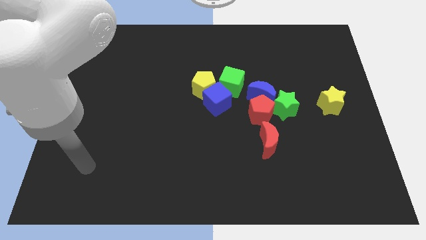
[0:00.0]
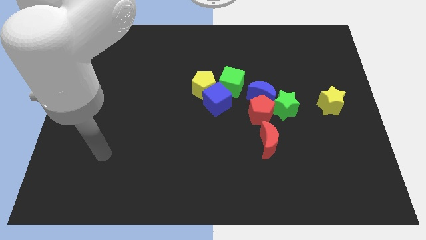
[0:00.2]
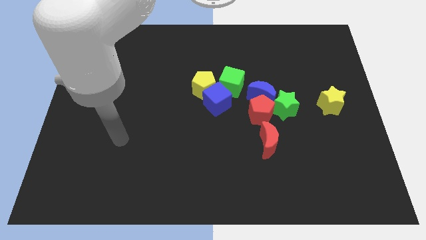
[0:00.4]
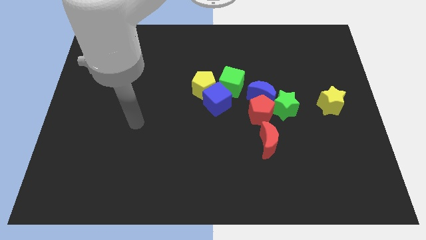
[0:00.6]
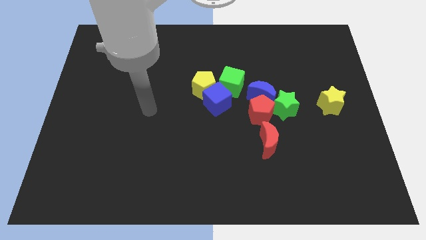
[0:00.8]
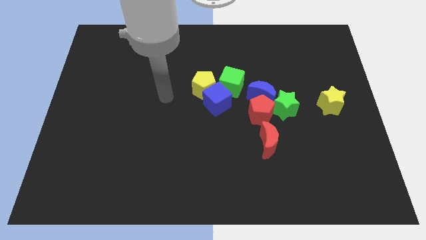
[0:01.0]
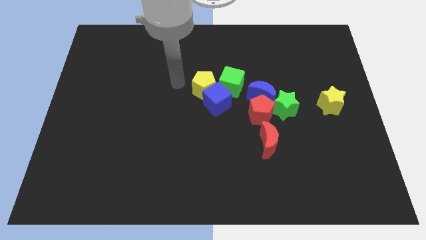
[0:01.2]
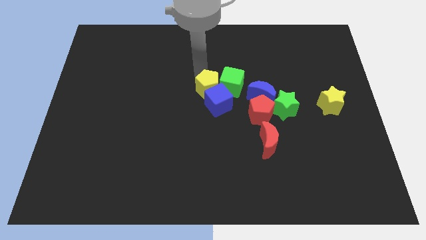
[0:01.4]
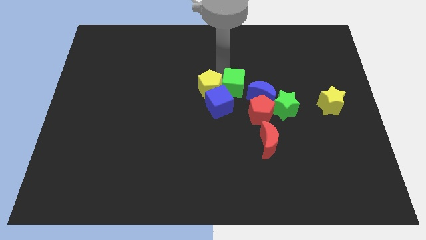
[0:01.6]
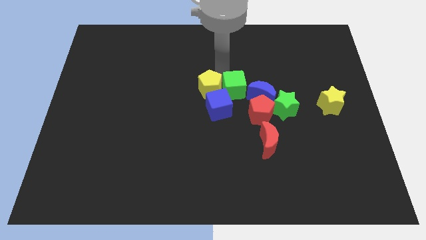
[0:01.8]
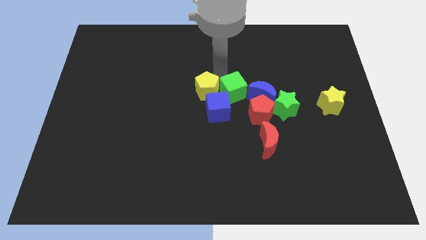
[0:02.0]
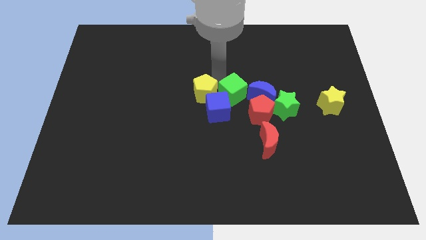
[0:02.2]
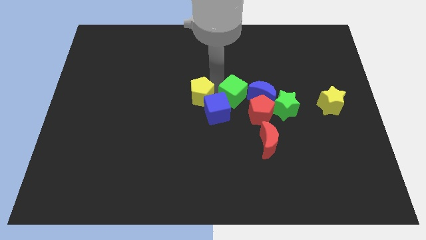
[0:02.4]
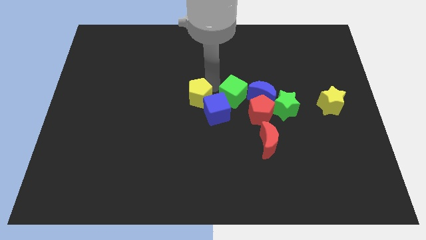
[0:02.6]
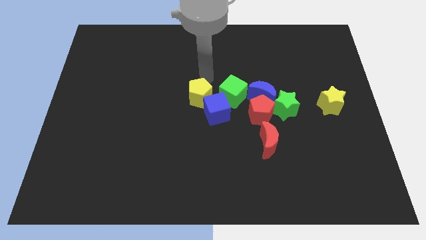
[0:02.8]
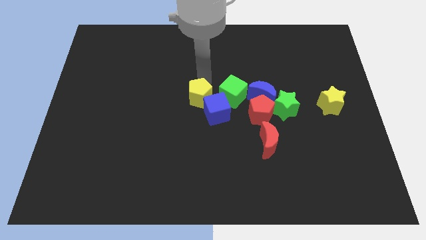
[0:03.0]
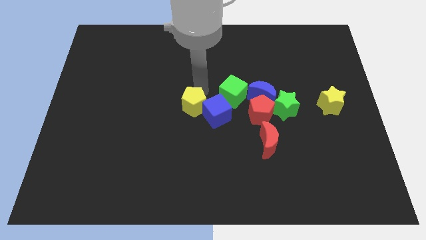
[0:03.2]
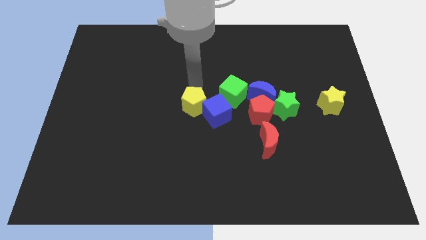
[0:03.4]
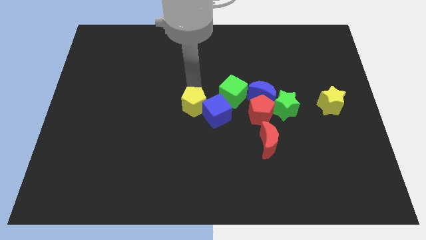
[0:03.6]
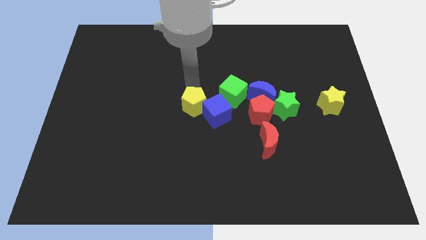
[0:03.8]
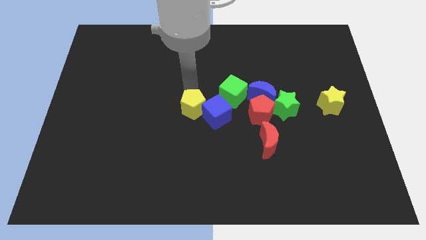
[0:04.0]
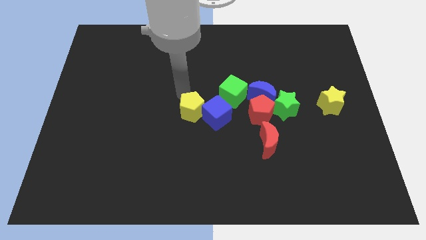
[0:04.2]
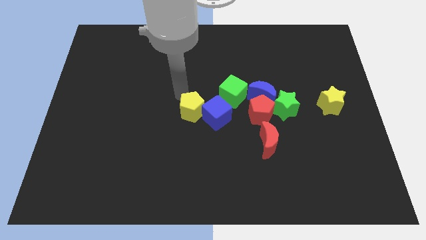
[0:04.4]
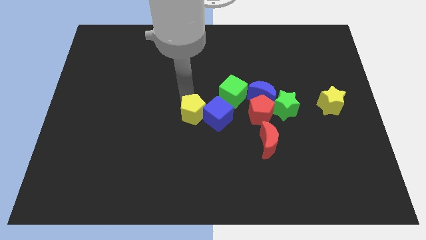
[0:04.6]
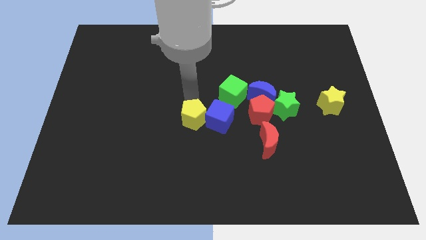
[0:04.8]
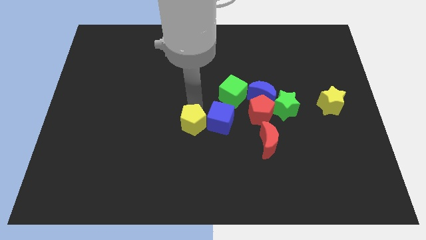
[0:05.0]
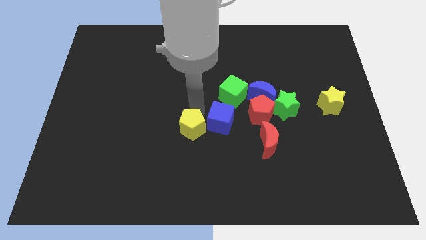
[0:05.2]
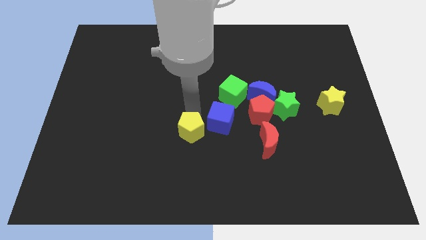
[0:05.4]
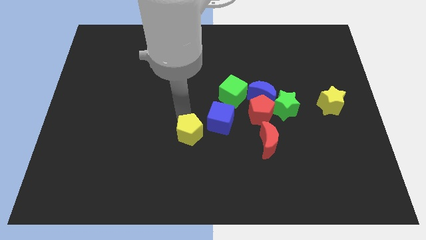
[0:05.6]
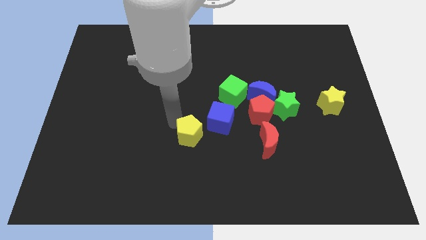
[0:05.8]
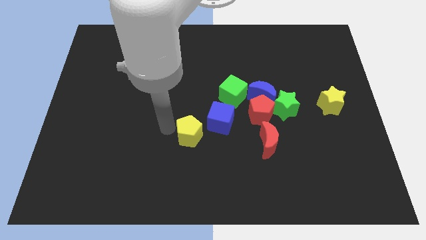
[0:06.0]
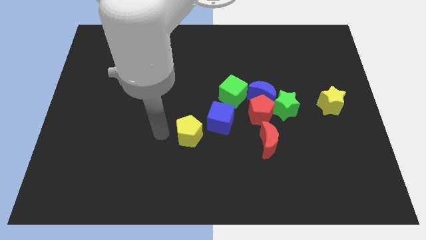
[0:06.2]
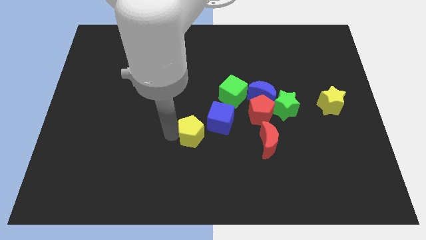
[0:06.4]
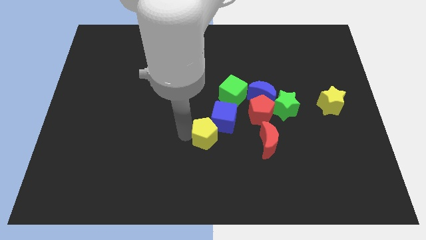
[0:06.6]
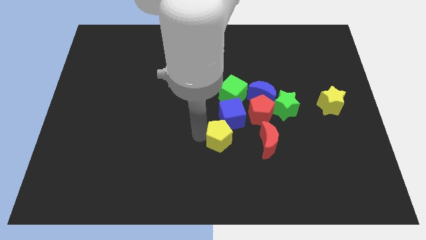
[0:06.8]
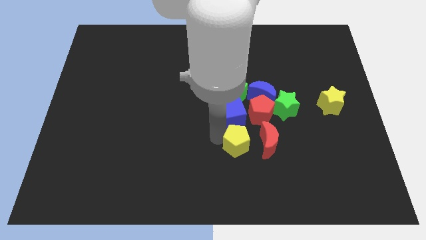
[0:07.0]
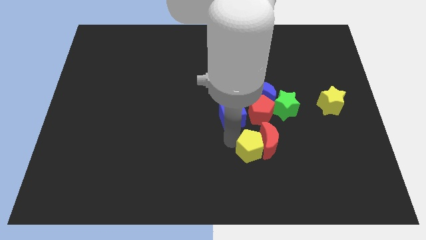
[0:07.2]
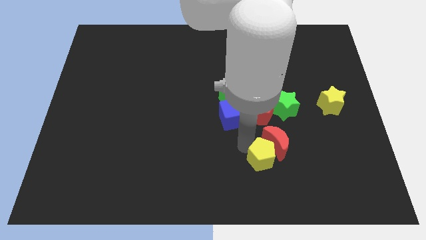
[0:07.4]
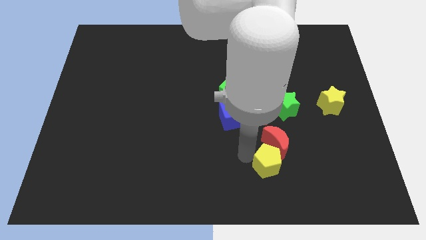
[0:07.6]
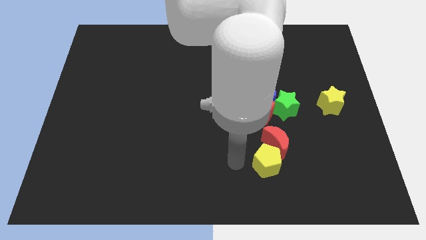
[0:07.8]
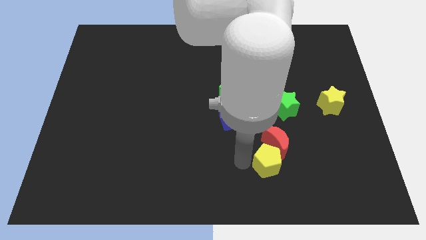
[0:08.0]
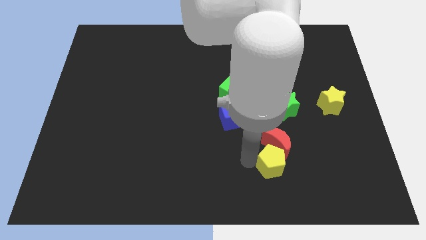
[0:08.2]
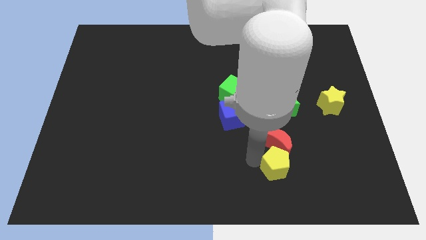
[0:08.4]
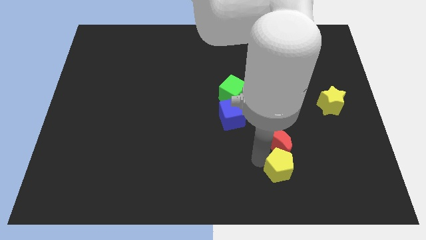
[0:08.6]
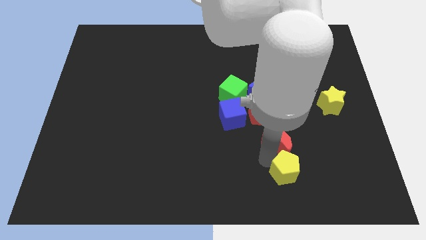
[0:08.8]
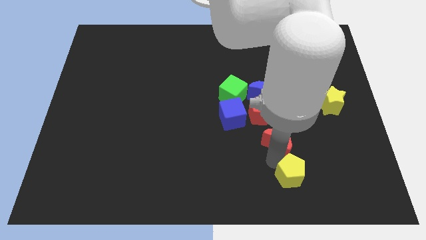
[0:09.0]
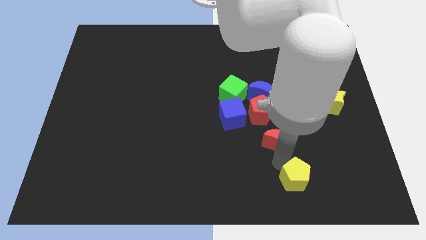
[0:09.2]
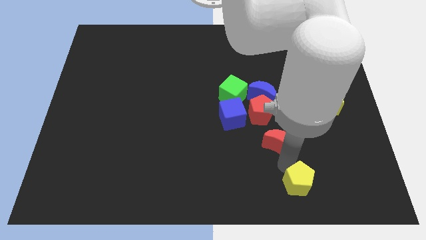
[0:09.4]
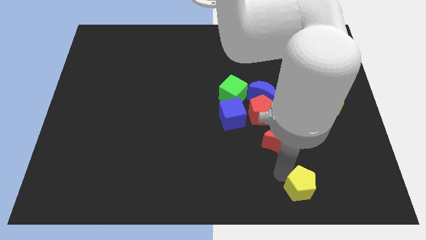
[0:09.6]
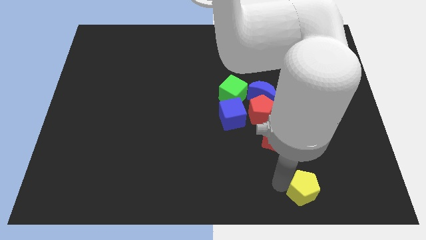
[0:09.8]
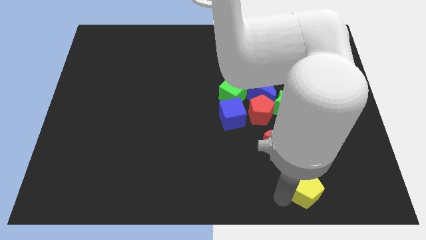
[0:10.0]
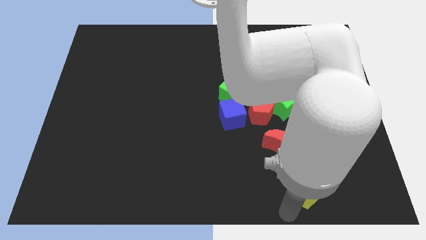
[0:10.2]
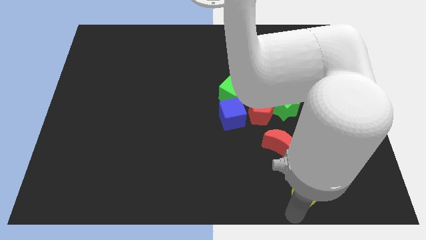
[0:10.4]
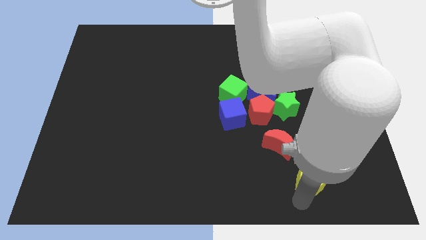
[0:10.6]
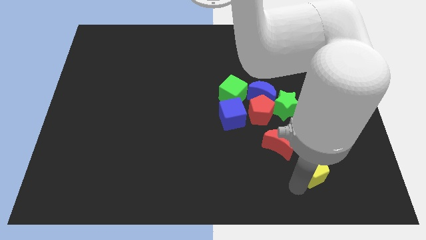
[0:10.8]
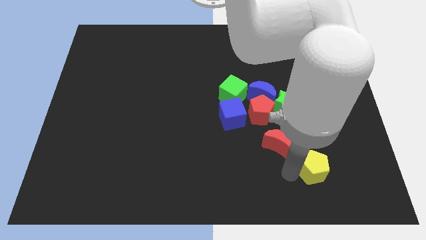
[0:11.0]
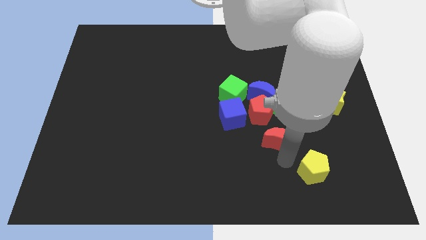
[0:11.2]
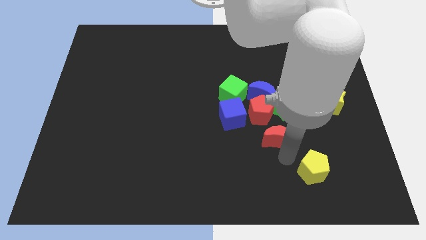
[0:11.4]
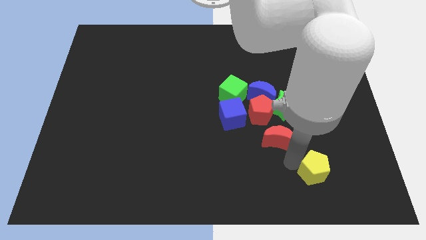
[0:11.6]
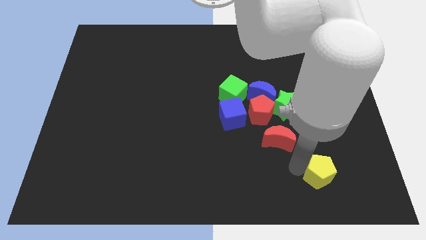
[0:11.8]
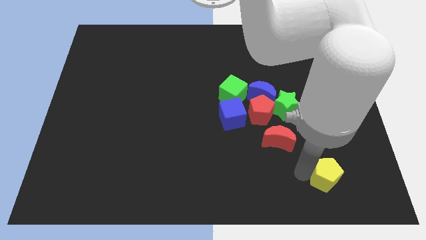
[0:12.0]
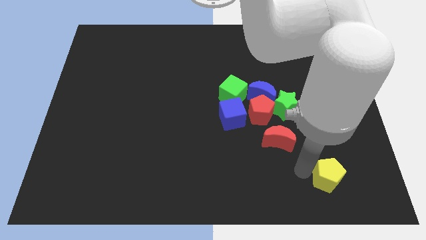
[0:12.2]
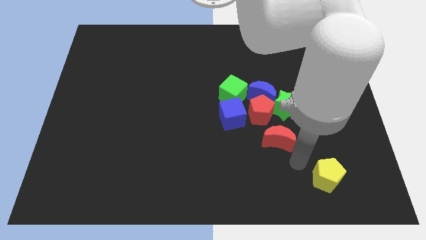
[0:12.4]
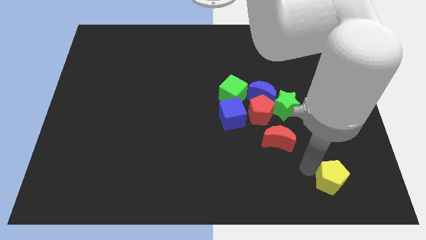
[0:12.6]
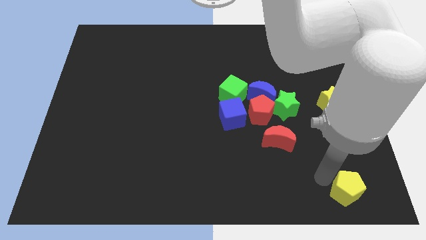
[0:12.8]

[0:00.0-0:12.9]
slide the yellow pentagon to the bottom right corner
